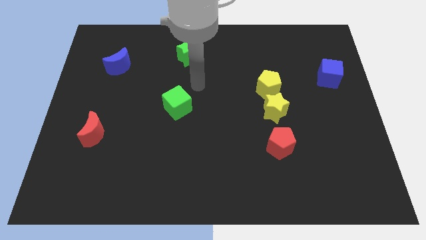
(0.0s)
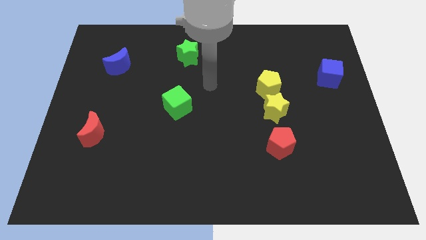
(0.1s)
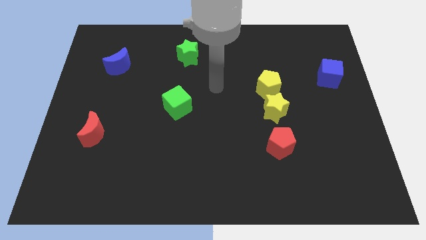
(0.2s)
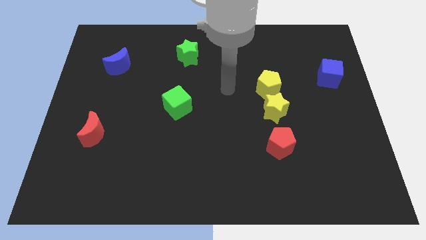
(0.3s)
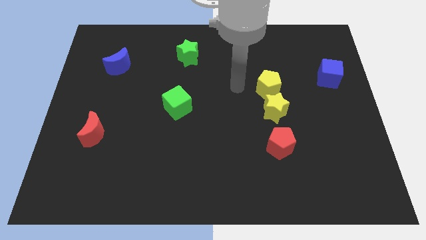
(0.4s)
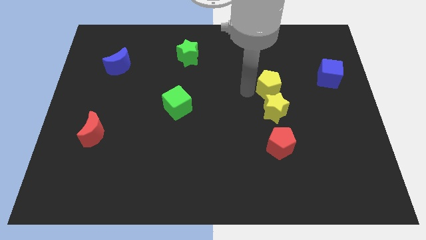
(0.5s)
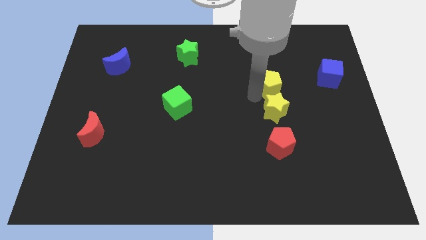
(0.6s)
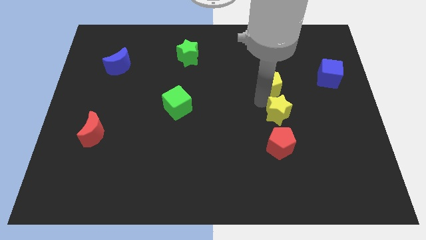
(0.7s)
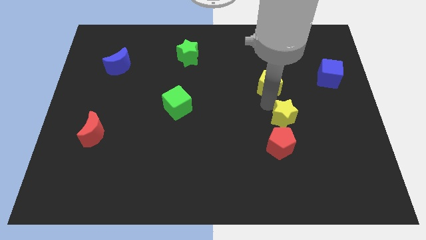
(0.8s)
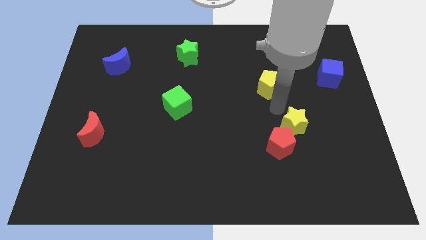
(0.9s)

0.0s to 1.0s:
separate the yellow pentagon from the yellow star

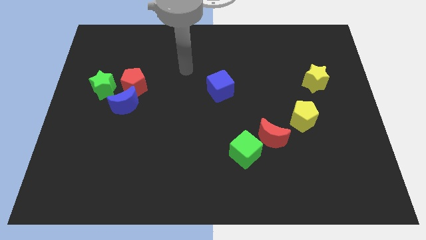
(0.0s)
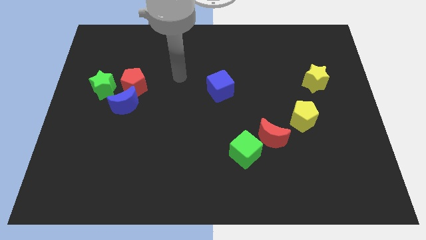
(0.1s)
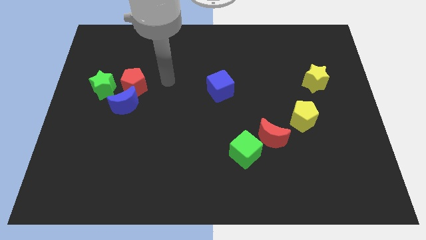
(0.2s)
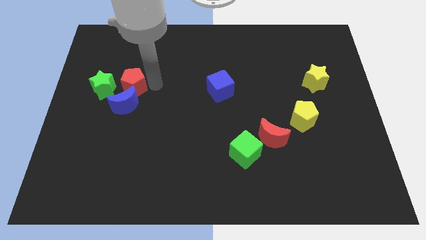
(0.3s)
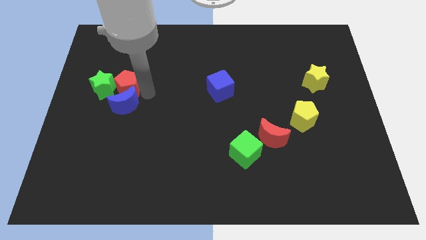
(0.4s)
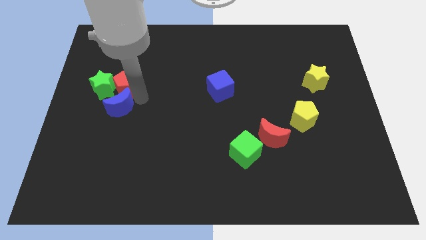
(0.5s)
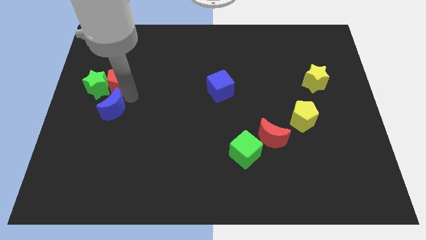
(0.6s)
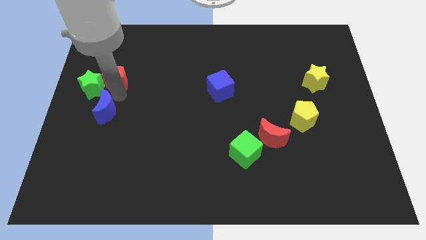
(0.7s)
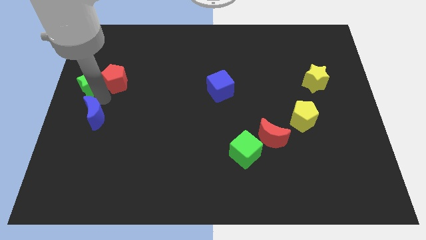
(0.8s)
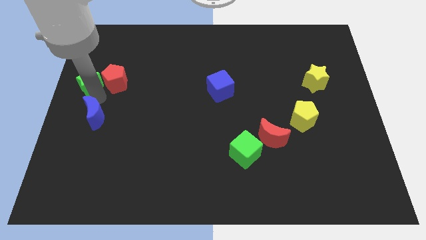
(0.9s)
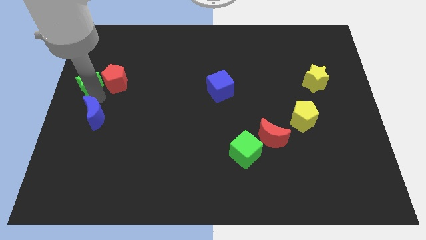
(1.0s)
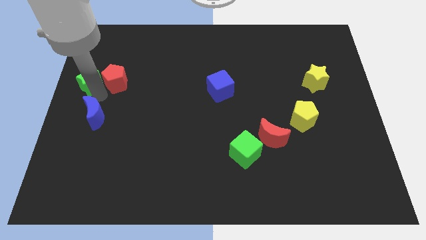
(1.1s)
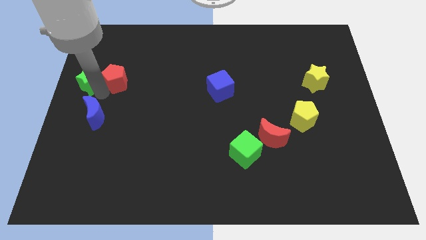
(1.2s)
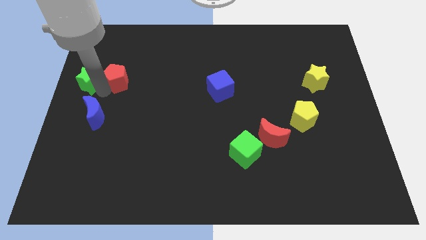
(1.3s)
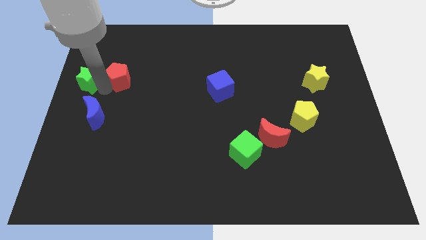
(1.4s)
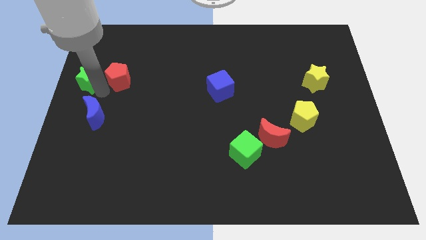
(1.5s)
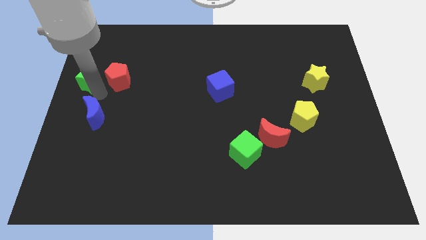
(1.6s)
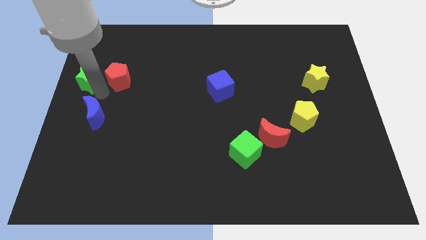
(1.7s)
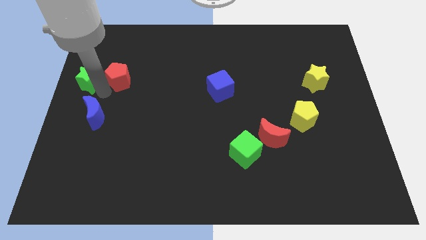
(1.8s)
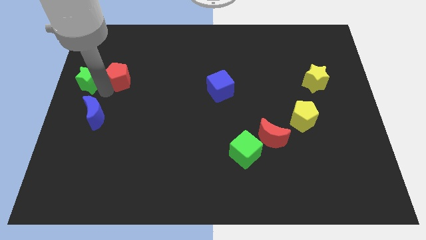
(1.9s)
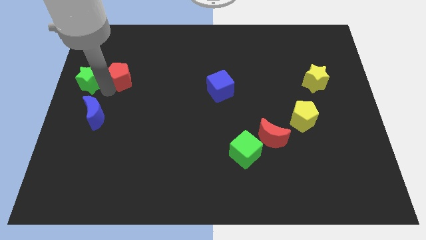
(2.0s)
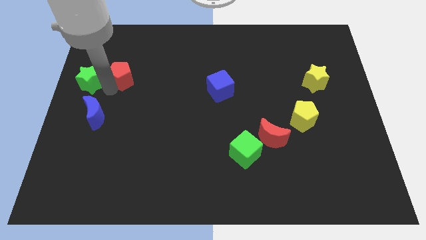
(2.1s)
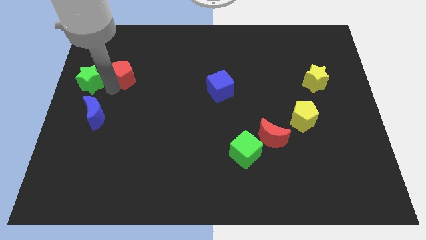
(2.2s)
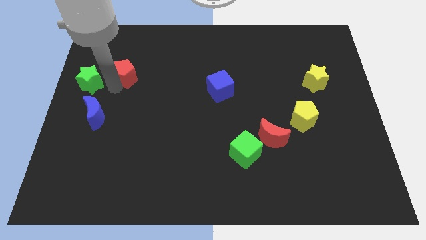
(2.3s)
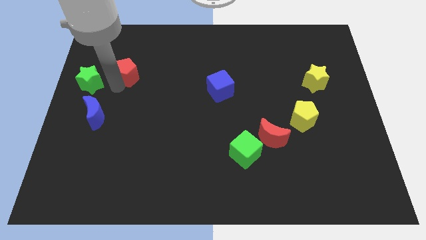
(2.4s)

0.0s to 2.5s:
separate the red pentagon from the blue moon and green star

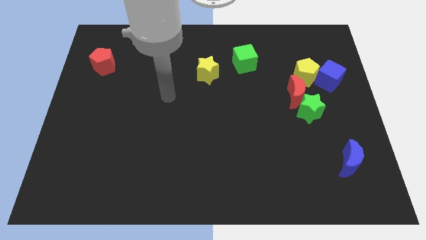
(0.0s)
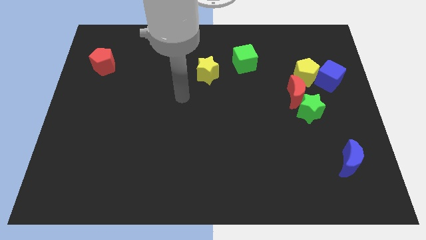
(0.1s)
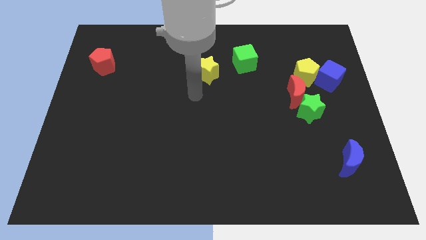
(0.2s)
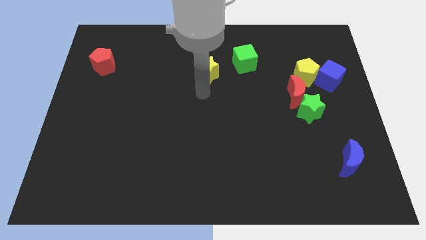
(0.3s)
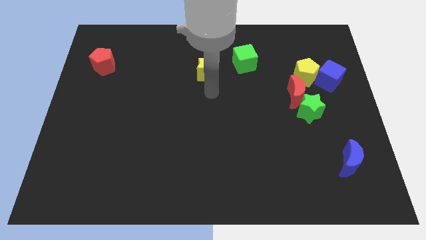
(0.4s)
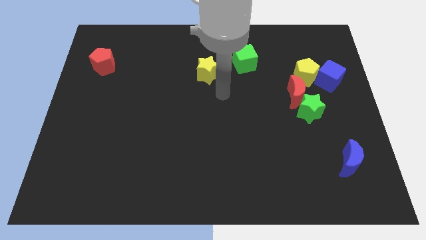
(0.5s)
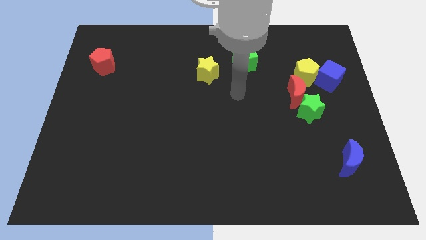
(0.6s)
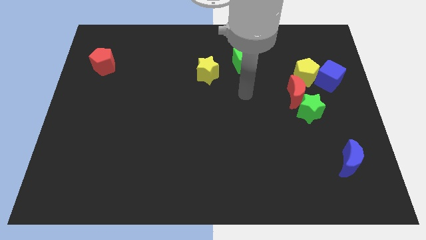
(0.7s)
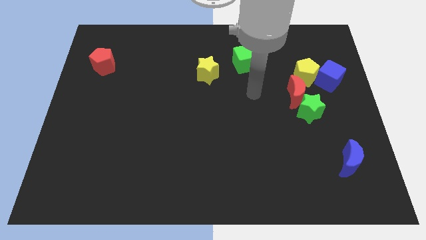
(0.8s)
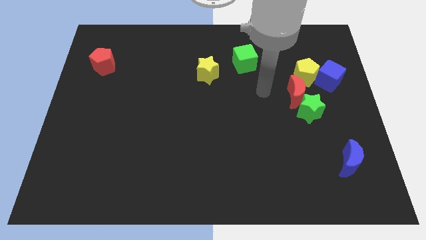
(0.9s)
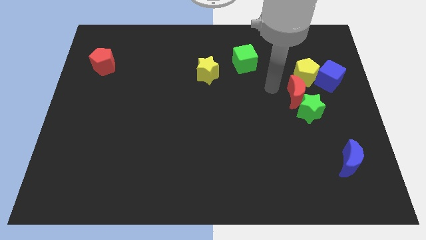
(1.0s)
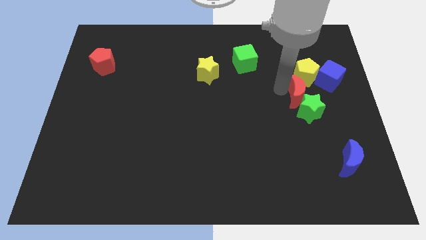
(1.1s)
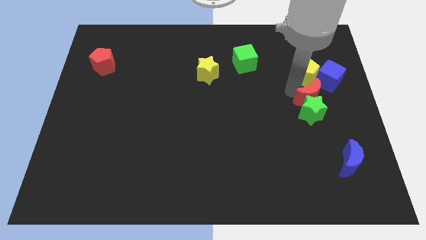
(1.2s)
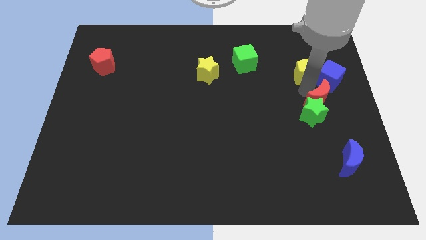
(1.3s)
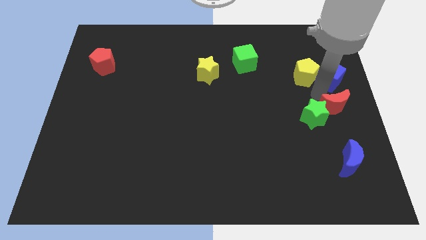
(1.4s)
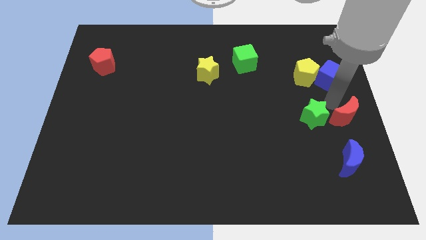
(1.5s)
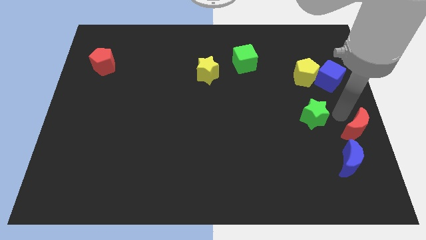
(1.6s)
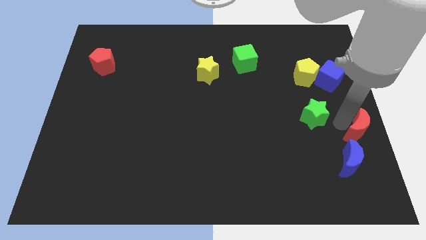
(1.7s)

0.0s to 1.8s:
move the green star away from the red moon

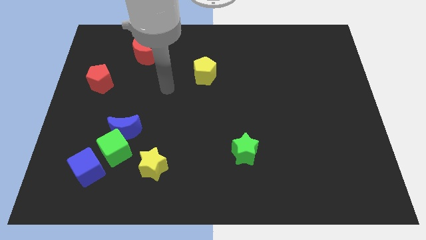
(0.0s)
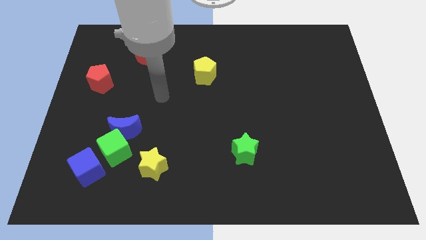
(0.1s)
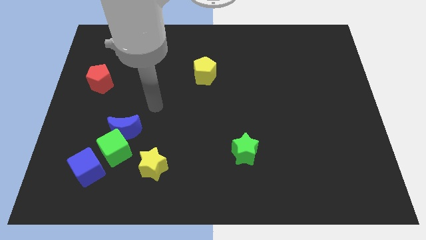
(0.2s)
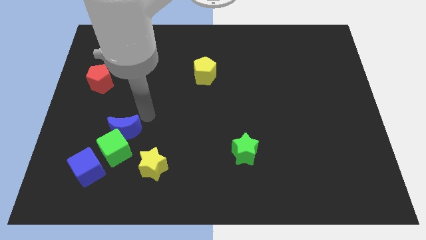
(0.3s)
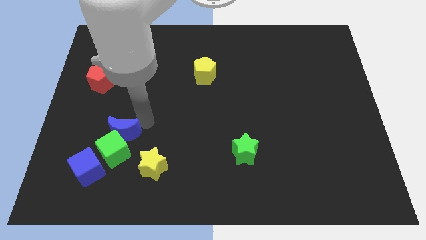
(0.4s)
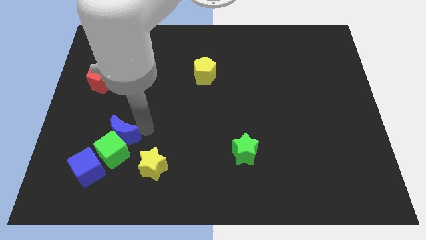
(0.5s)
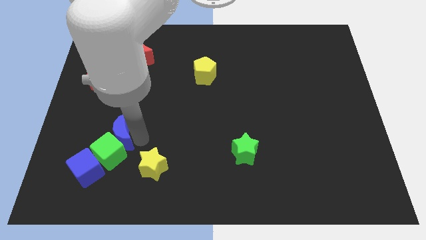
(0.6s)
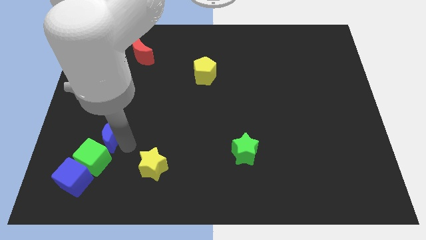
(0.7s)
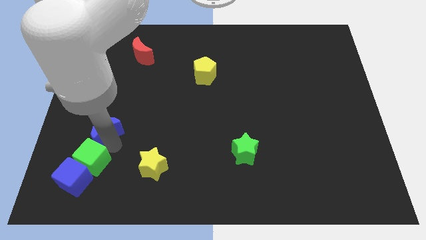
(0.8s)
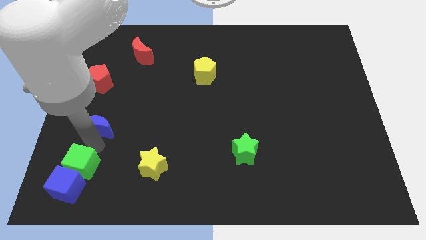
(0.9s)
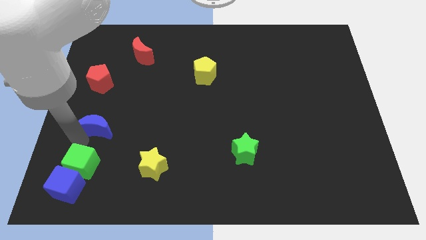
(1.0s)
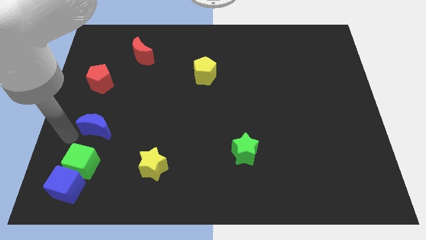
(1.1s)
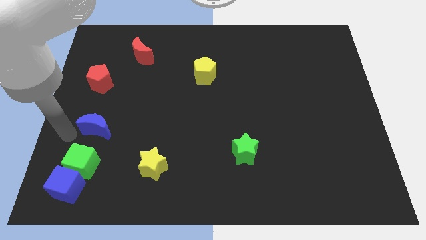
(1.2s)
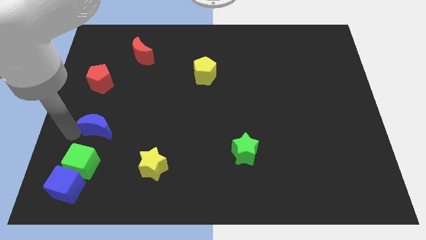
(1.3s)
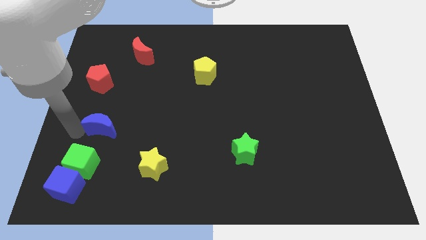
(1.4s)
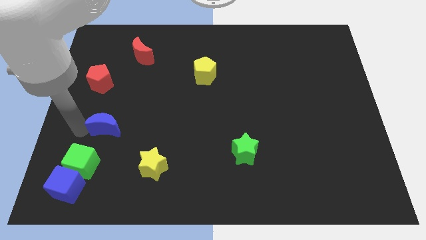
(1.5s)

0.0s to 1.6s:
pull the blue moon apart from the green cube

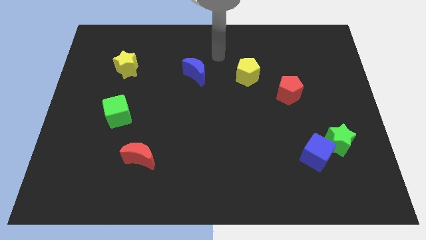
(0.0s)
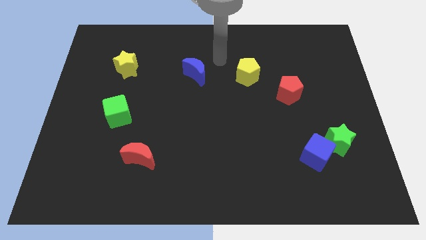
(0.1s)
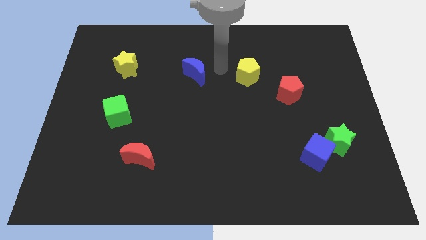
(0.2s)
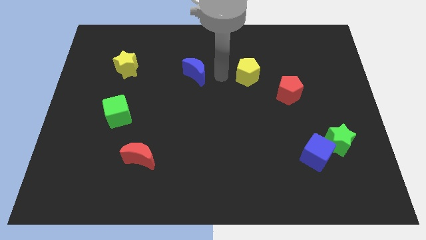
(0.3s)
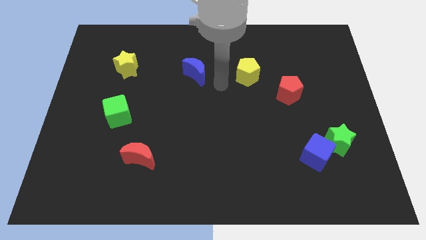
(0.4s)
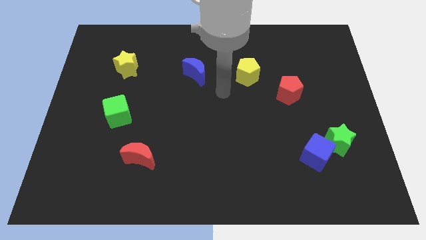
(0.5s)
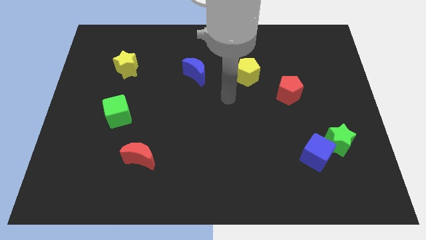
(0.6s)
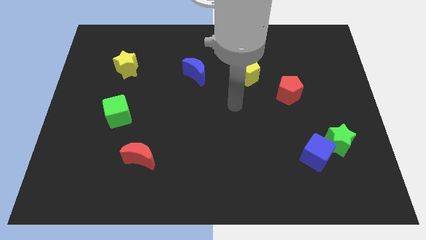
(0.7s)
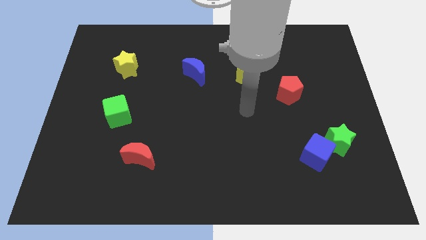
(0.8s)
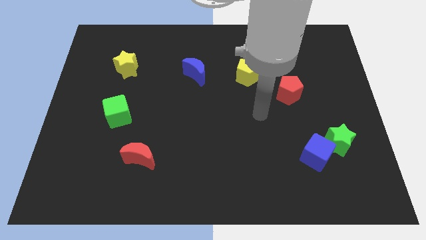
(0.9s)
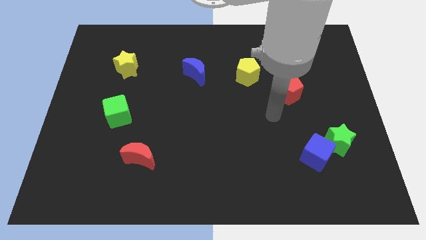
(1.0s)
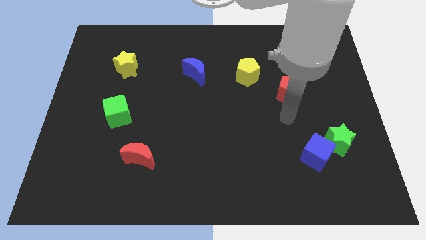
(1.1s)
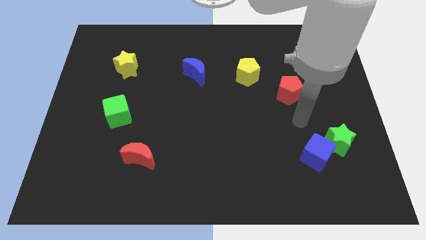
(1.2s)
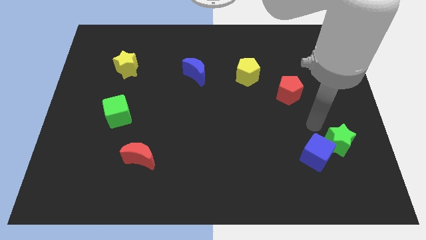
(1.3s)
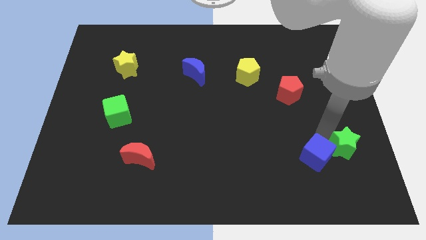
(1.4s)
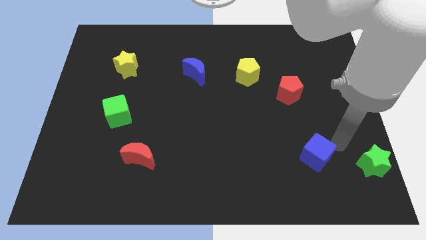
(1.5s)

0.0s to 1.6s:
move the blue cube away from the green star

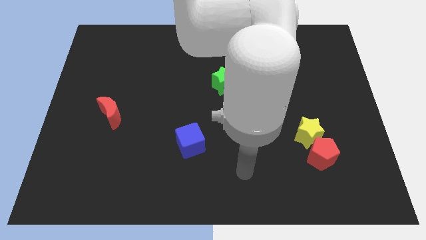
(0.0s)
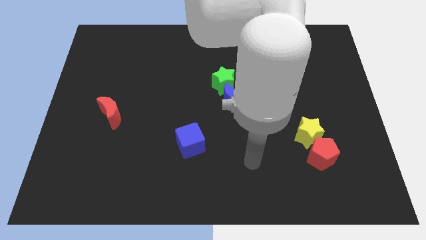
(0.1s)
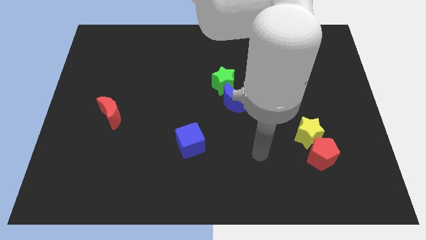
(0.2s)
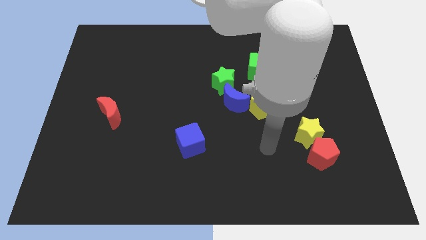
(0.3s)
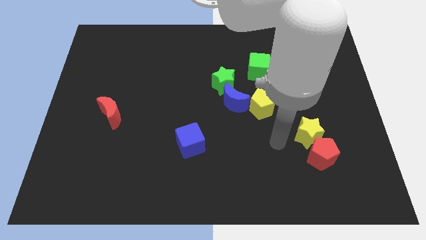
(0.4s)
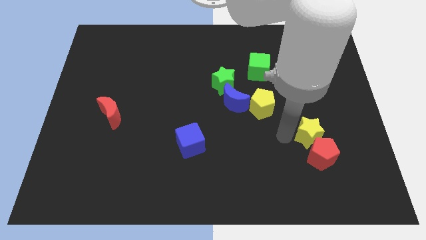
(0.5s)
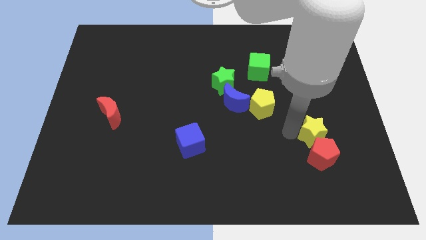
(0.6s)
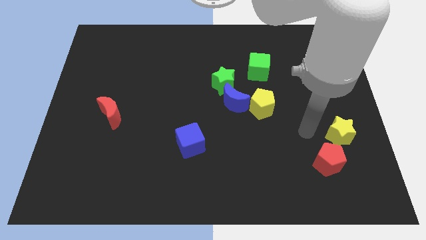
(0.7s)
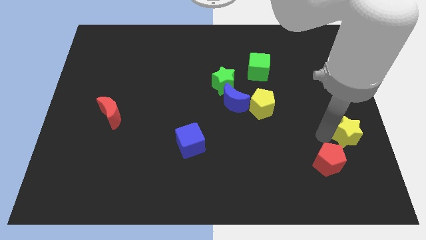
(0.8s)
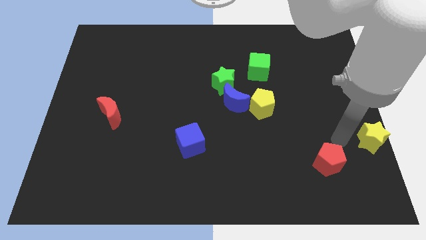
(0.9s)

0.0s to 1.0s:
move the red pentagon away from the yellow star
